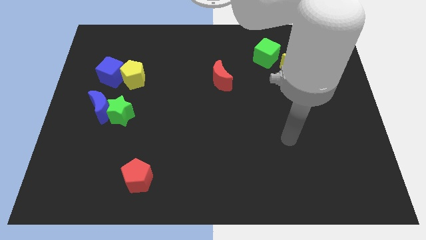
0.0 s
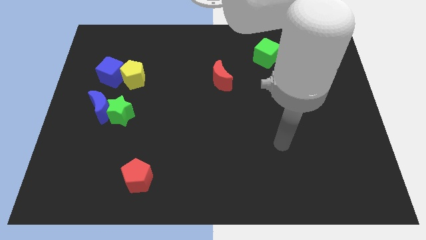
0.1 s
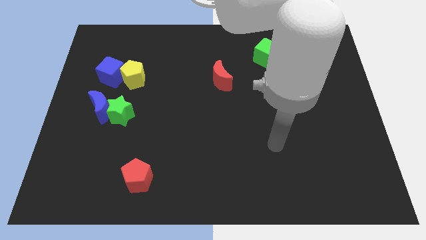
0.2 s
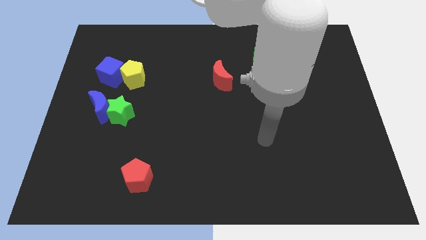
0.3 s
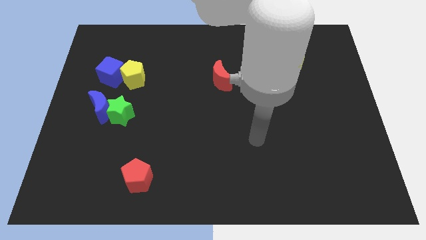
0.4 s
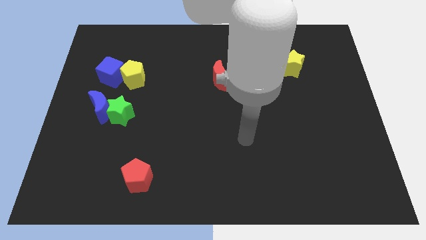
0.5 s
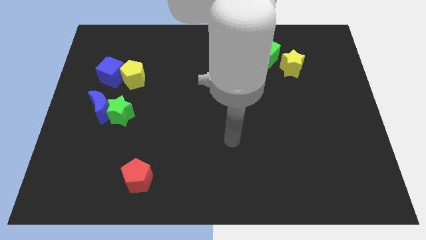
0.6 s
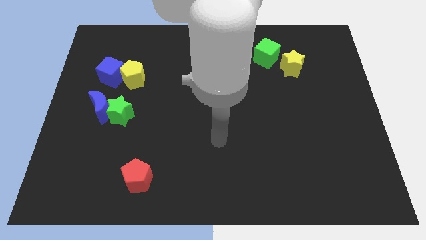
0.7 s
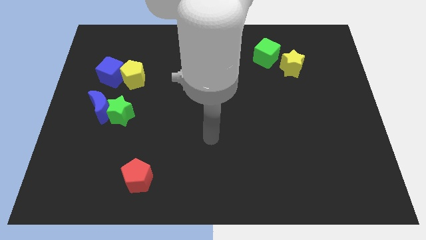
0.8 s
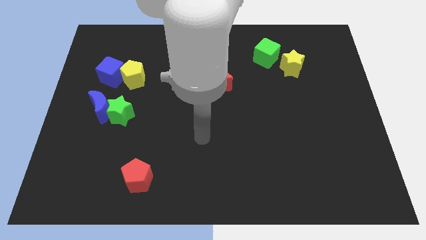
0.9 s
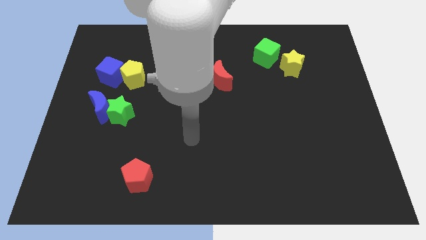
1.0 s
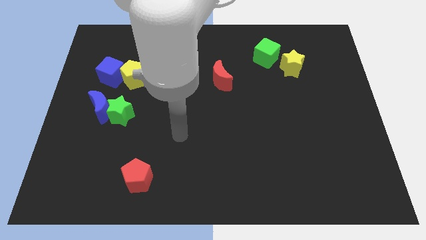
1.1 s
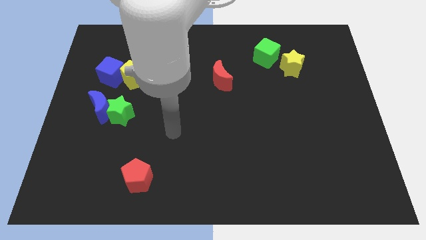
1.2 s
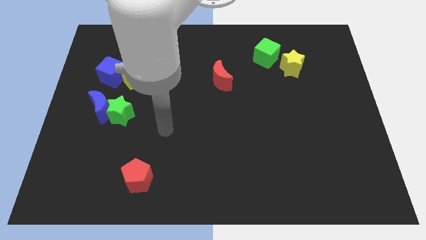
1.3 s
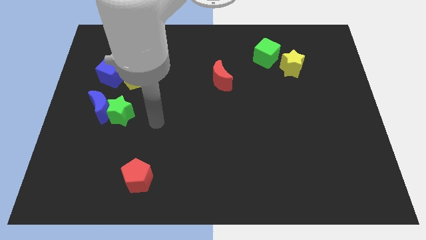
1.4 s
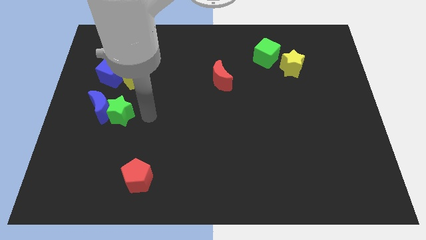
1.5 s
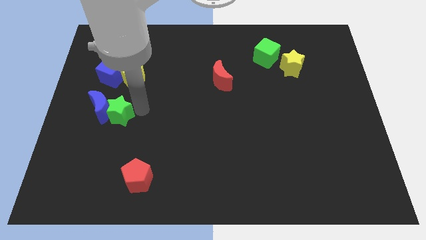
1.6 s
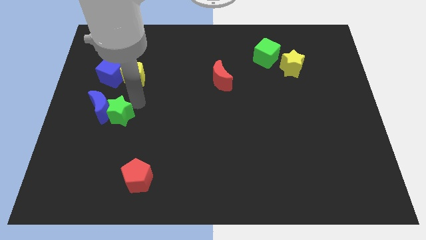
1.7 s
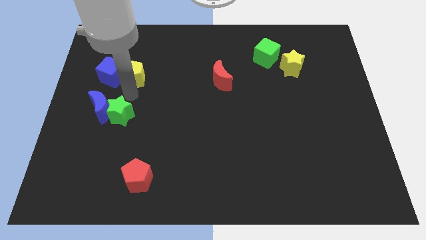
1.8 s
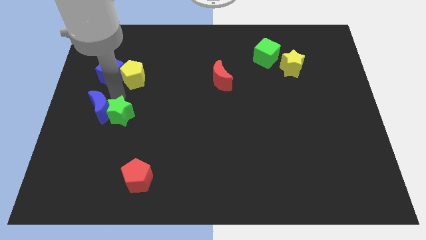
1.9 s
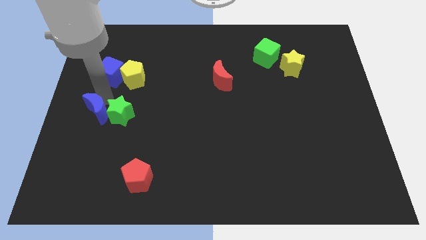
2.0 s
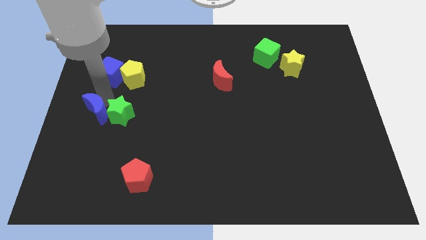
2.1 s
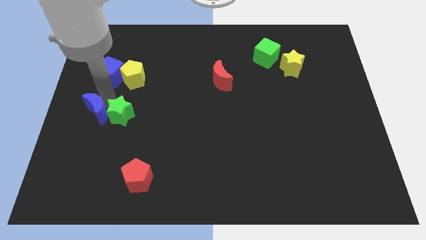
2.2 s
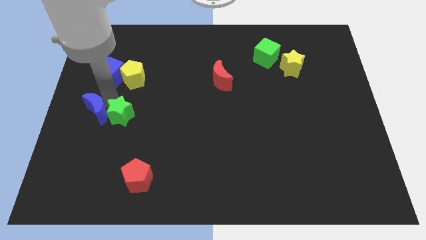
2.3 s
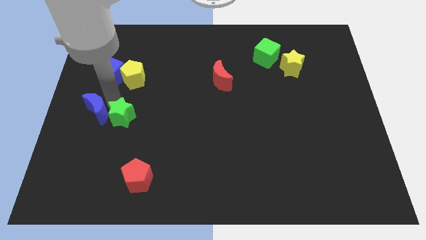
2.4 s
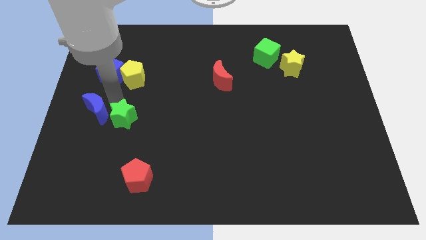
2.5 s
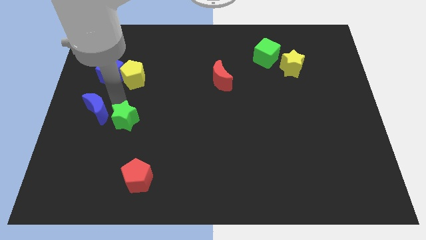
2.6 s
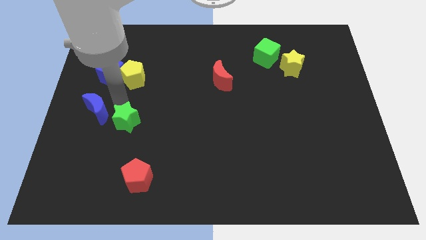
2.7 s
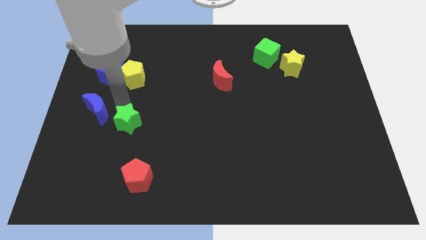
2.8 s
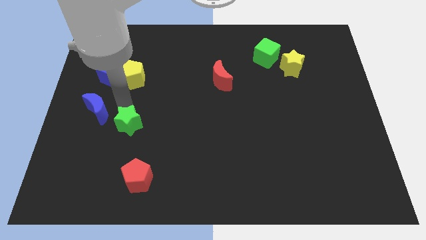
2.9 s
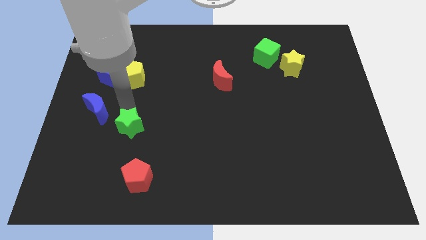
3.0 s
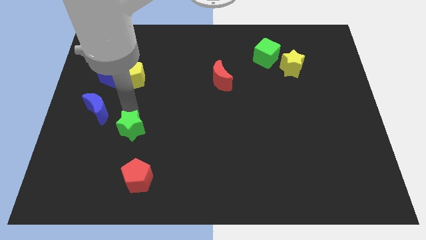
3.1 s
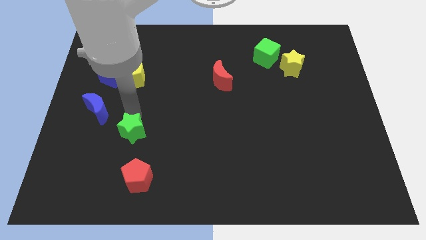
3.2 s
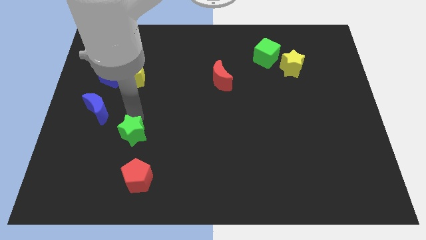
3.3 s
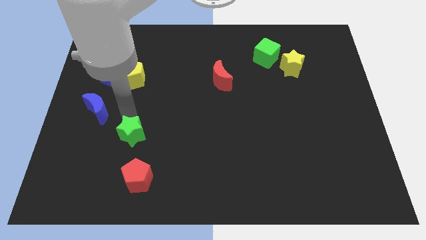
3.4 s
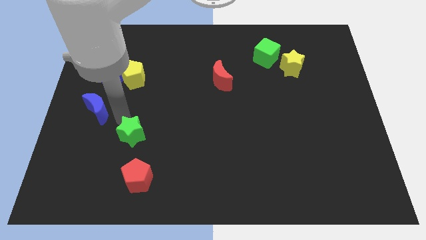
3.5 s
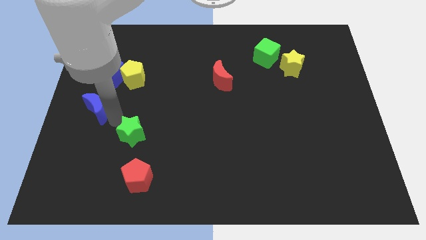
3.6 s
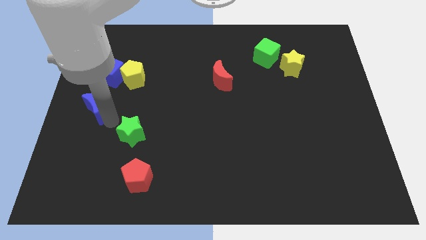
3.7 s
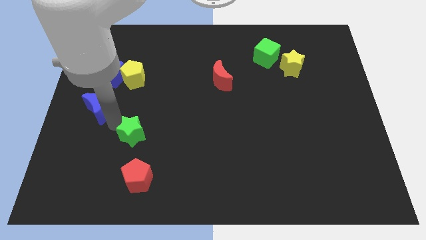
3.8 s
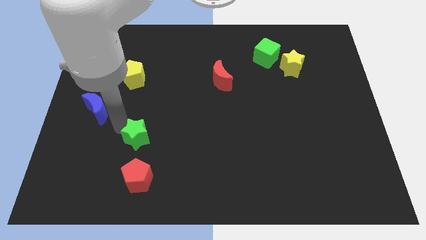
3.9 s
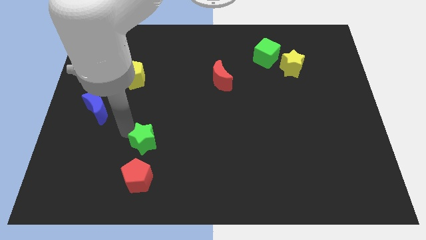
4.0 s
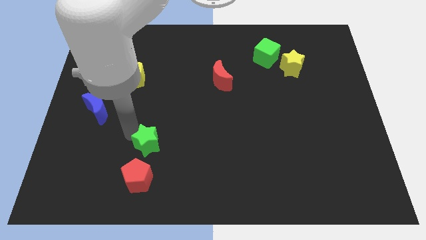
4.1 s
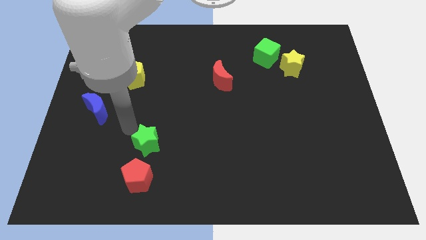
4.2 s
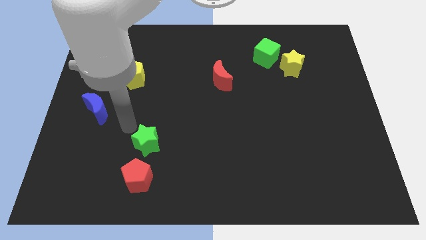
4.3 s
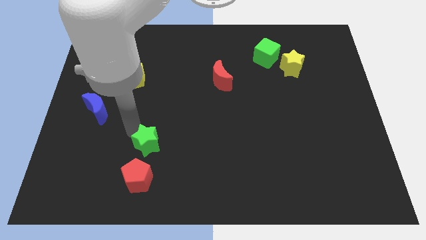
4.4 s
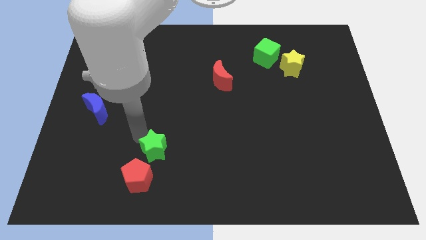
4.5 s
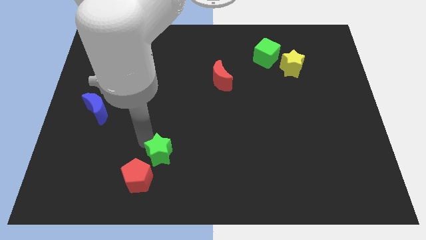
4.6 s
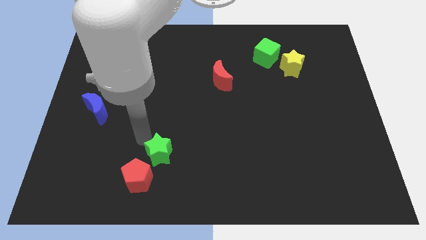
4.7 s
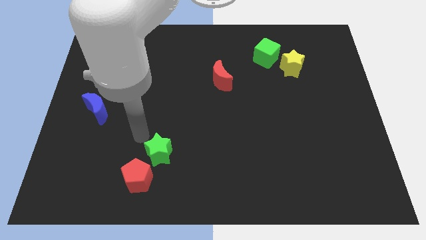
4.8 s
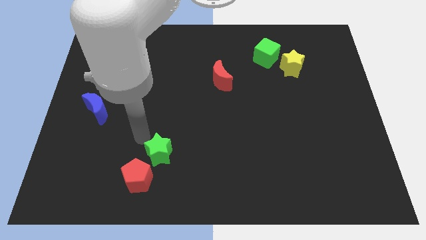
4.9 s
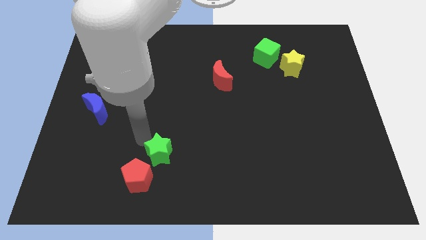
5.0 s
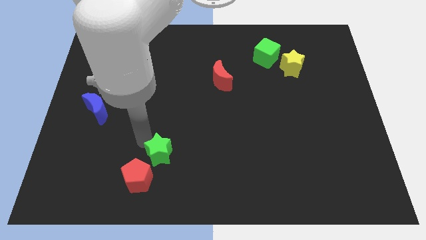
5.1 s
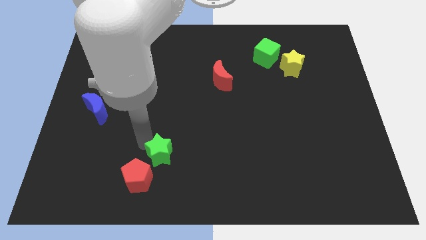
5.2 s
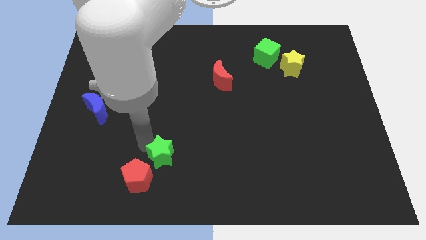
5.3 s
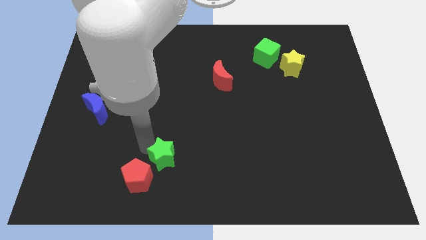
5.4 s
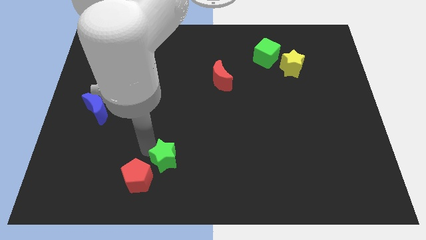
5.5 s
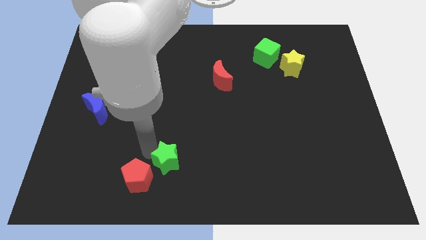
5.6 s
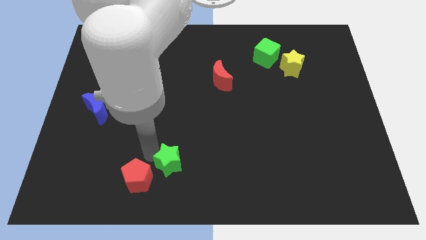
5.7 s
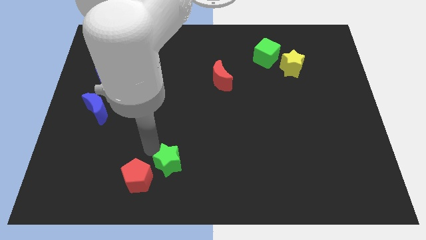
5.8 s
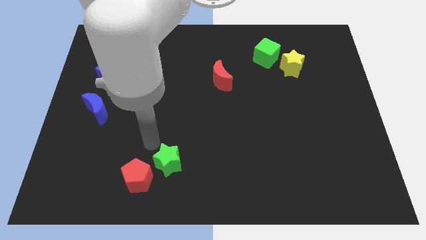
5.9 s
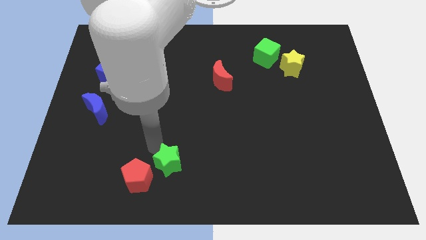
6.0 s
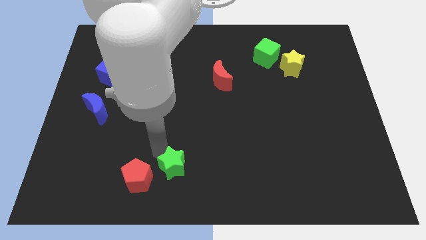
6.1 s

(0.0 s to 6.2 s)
slide the green star to the bottom
